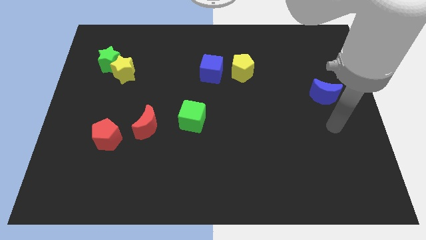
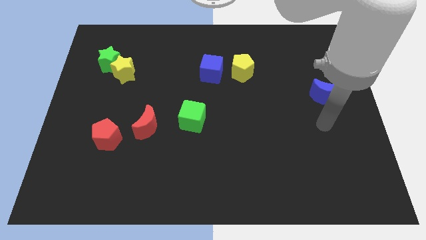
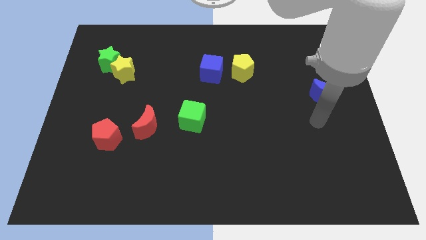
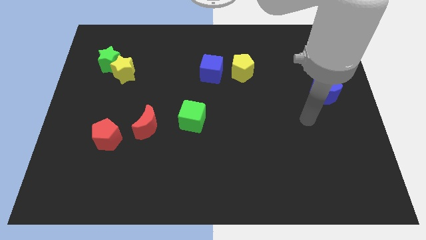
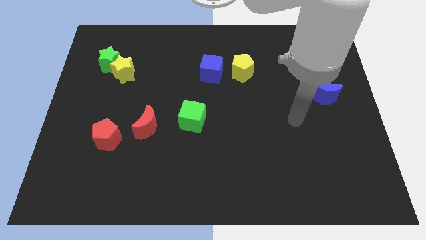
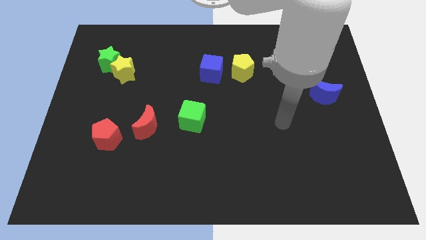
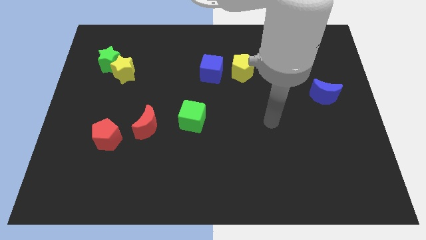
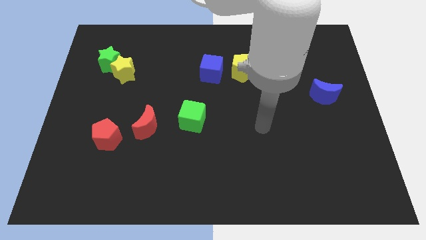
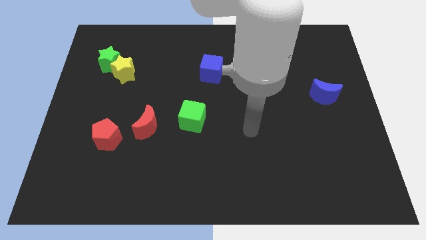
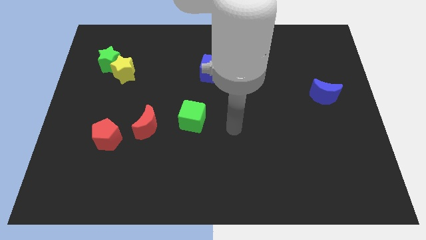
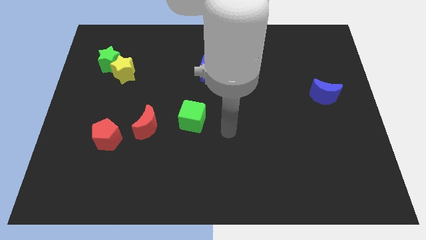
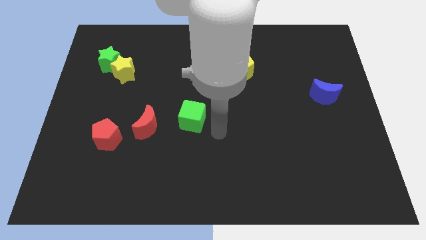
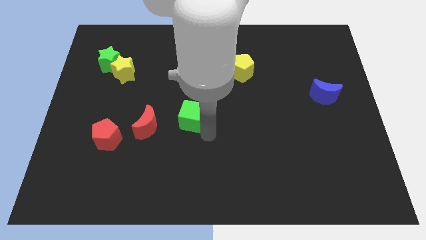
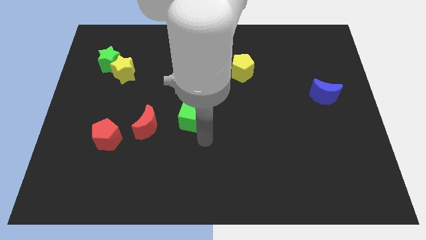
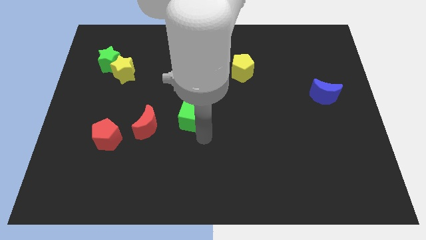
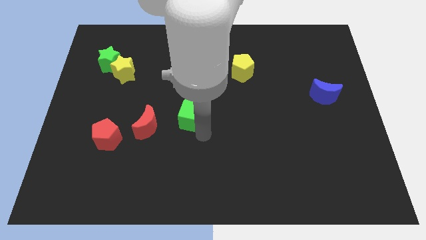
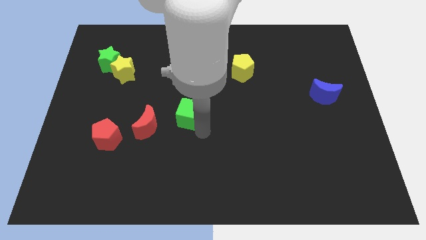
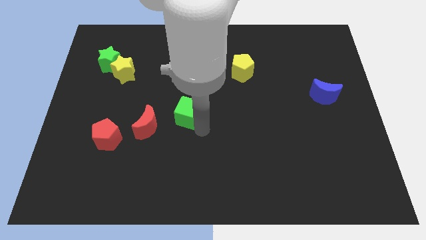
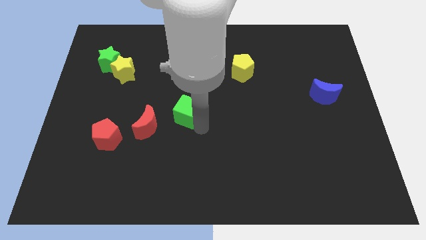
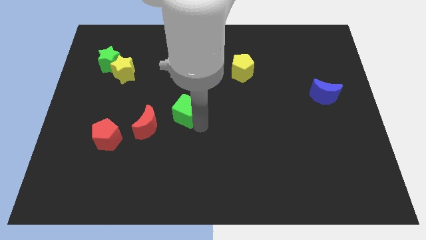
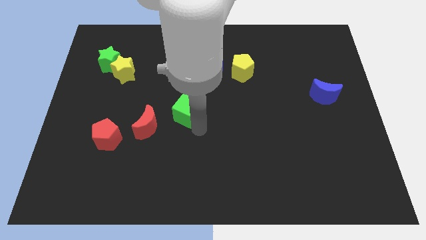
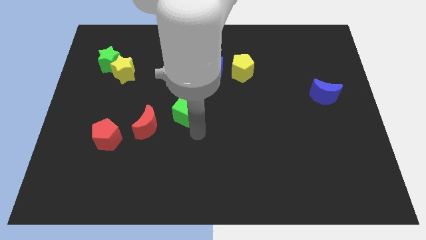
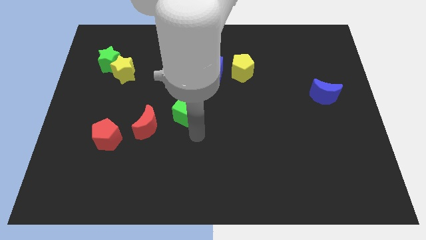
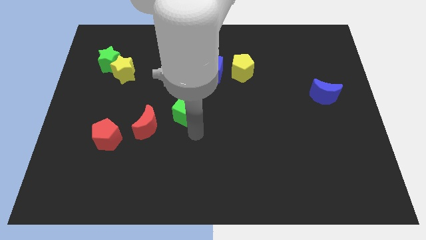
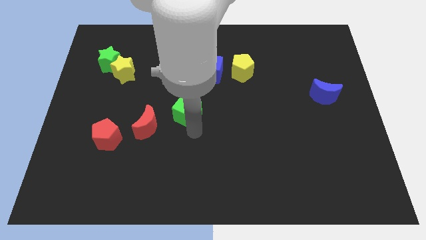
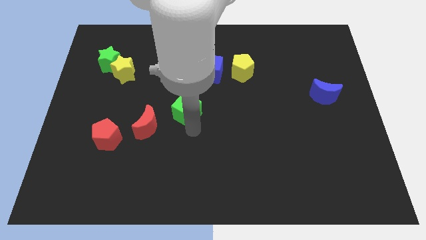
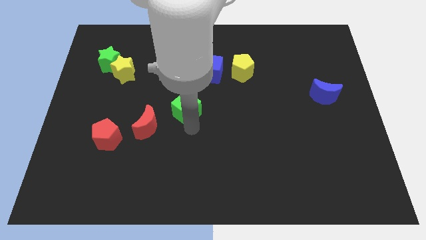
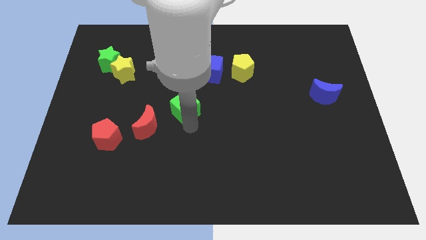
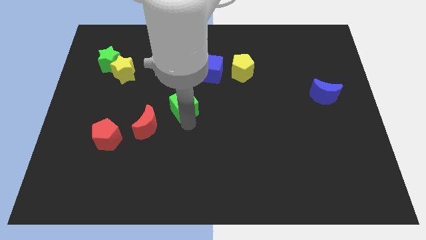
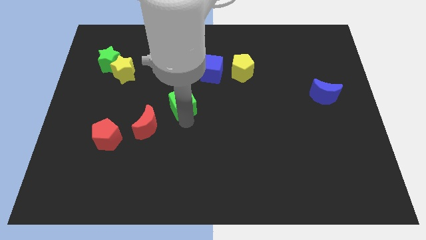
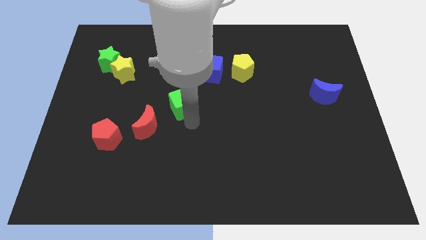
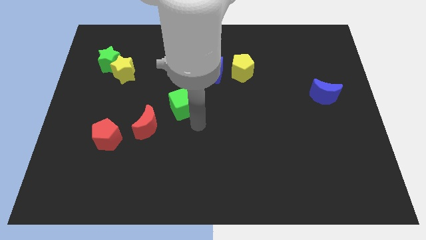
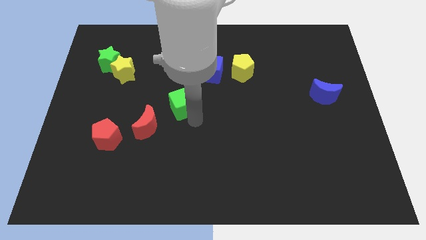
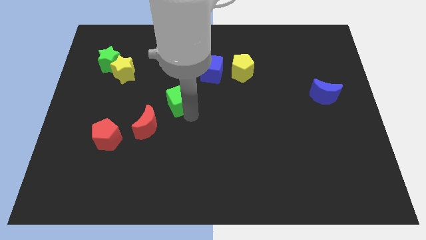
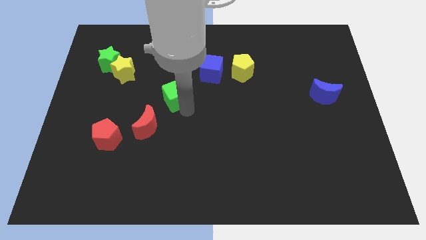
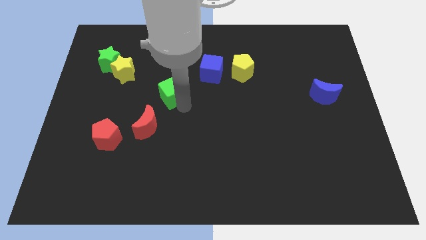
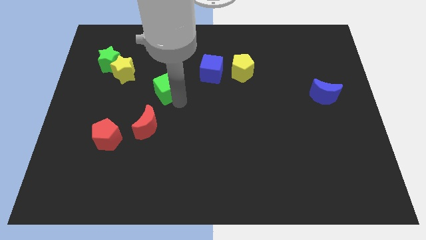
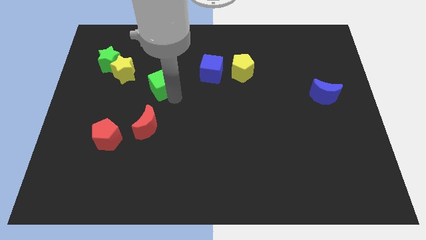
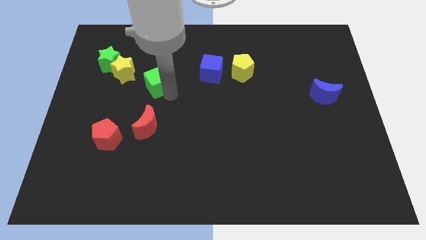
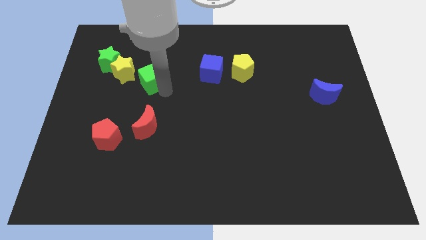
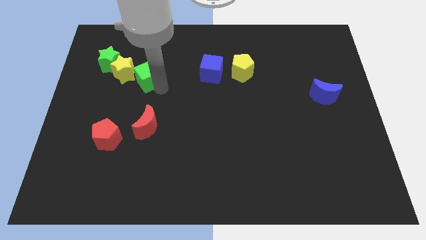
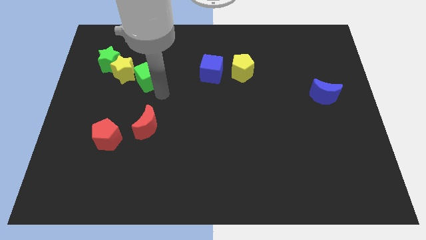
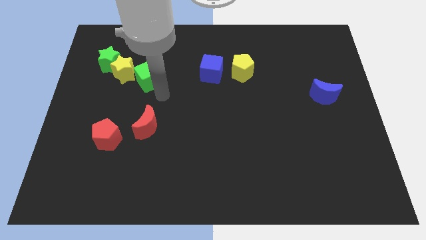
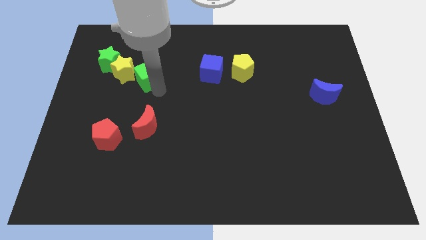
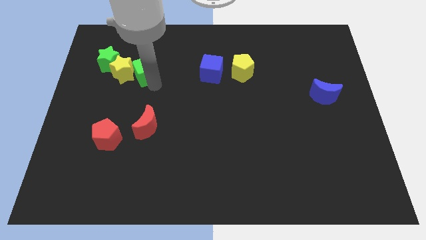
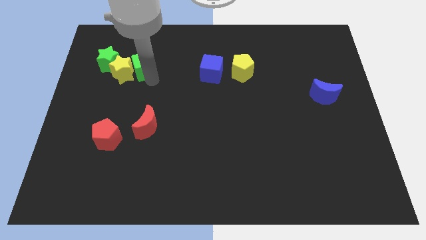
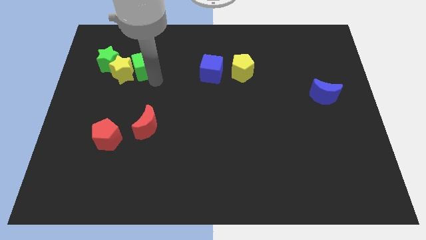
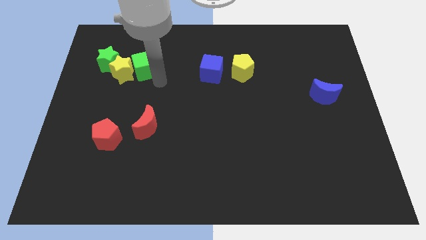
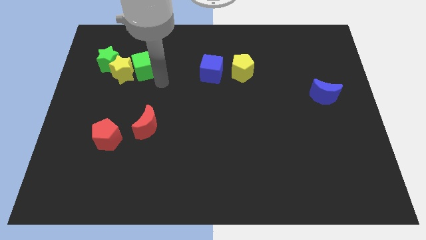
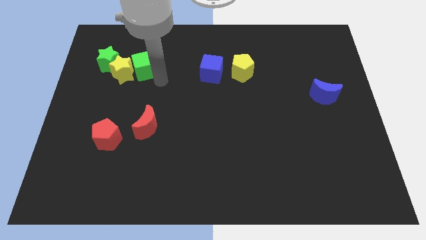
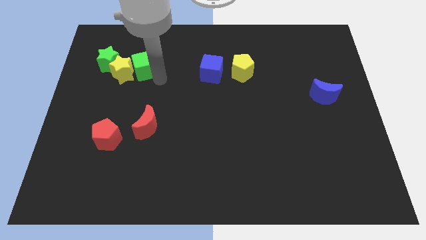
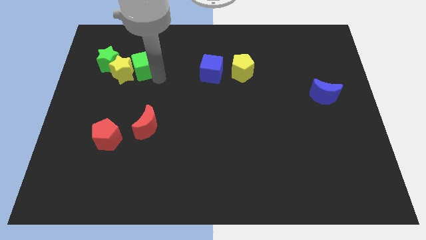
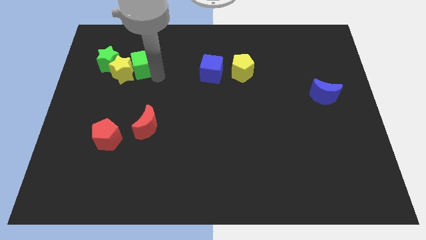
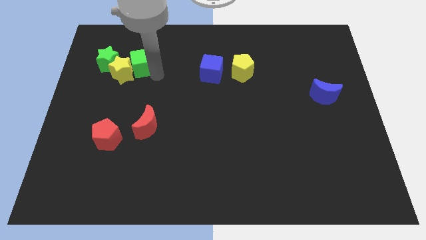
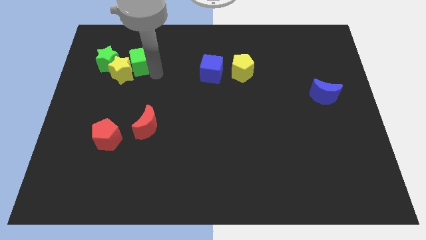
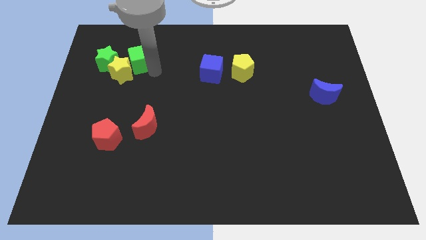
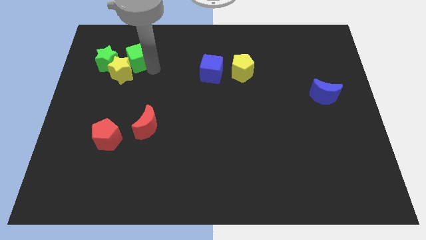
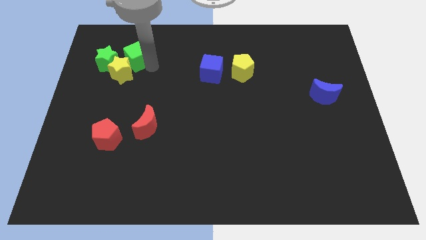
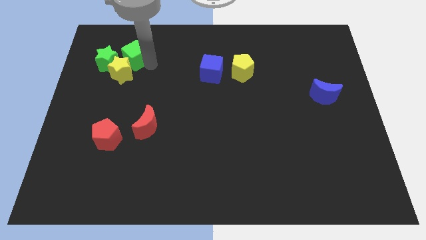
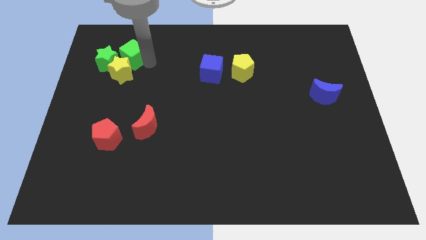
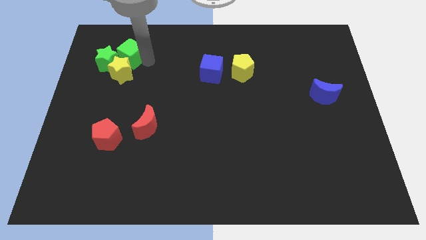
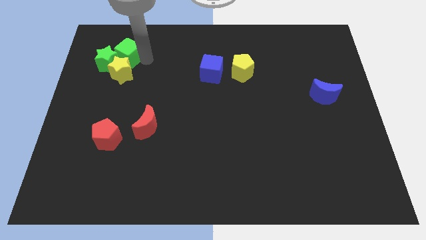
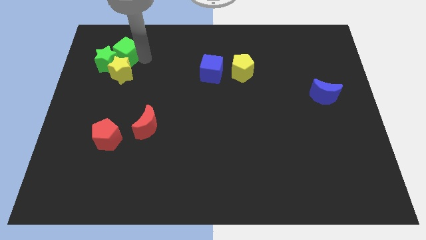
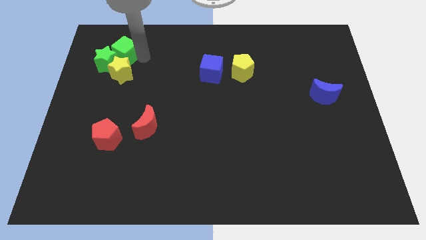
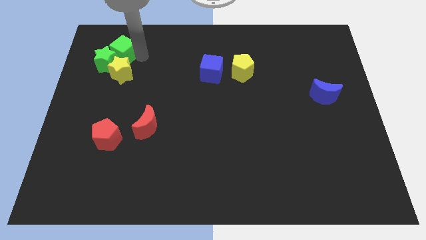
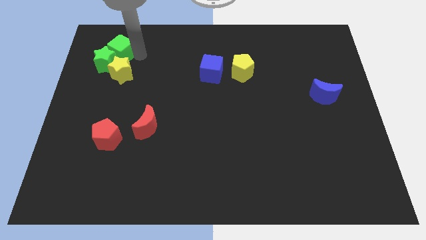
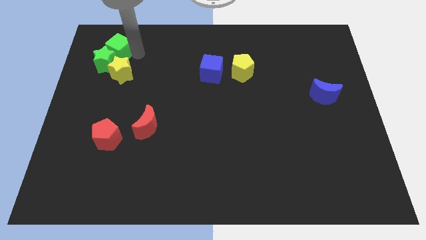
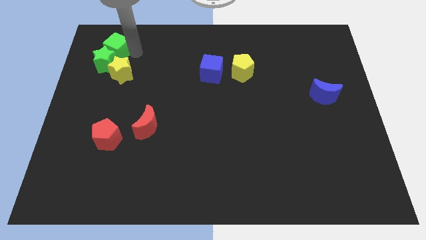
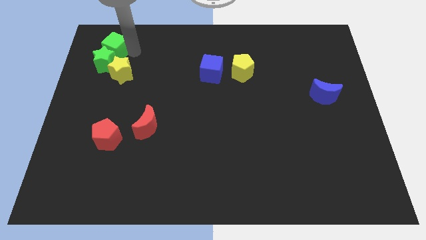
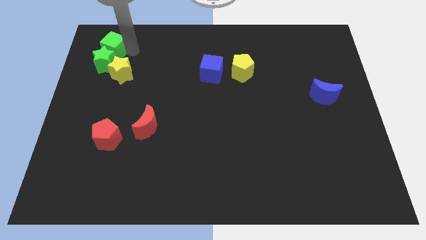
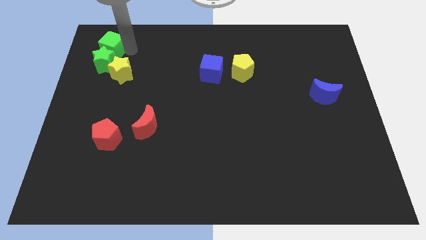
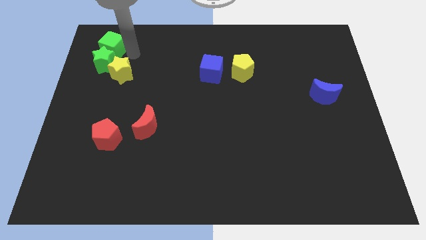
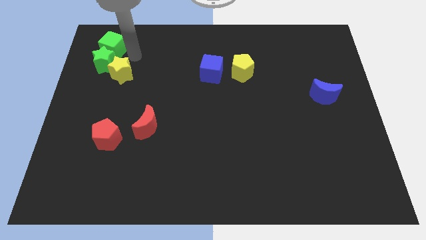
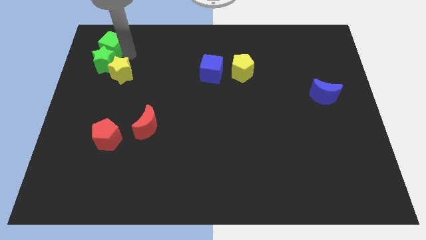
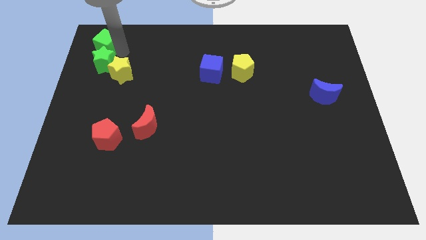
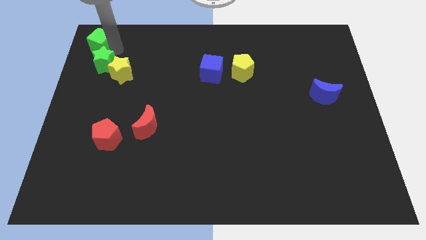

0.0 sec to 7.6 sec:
slide the green cube to the upper left corner
